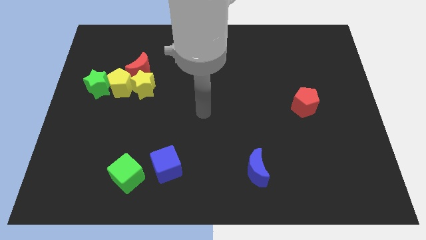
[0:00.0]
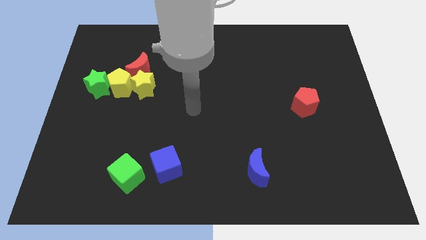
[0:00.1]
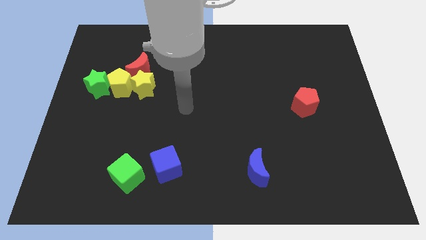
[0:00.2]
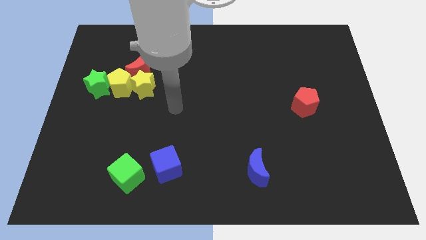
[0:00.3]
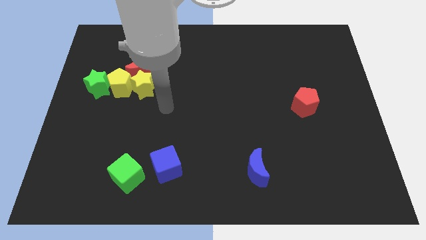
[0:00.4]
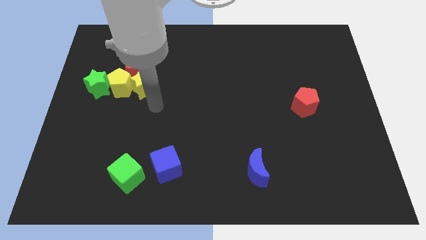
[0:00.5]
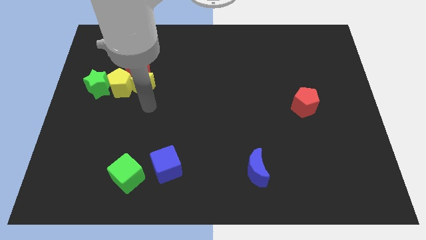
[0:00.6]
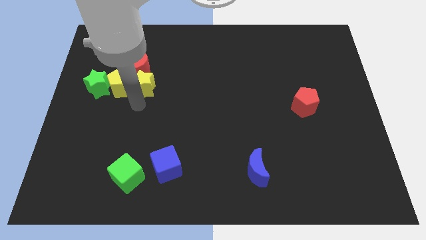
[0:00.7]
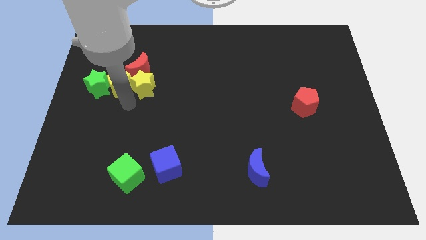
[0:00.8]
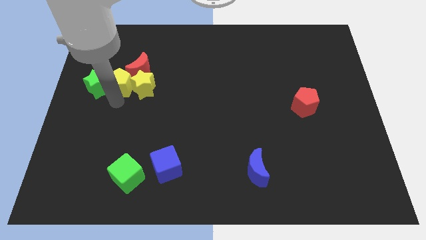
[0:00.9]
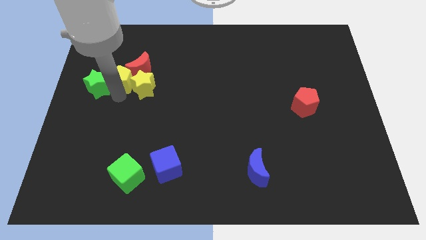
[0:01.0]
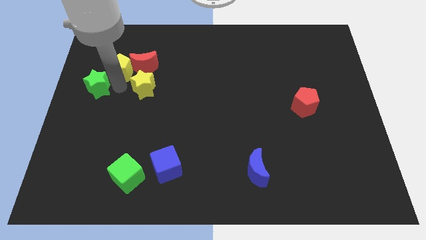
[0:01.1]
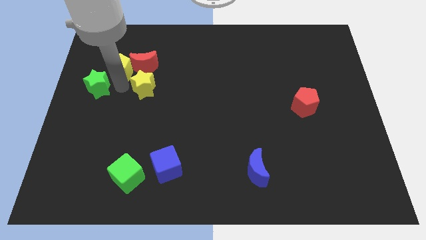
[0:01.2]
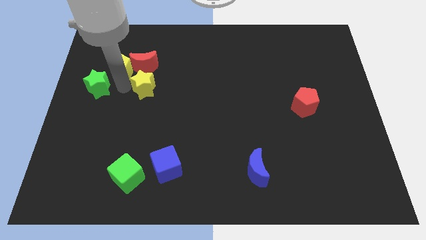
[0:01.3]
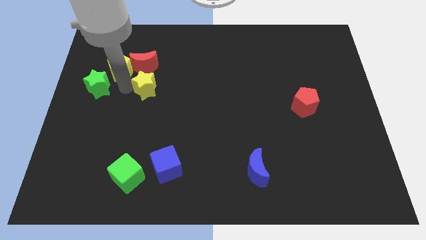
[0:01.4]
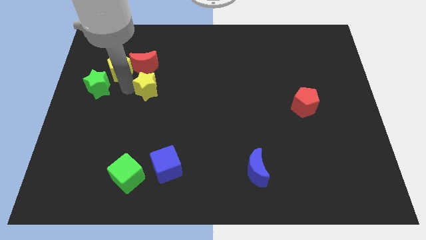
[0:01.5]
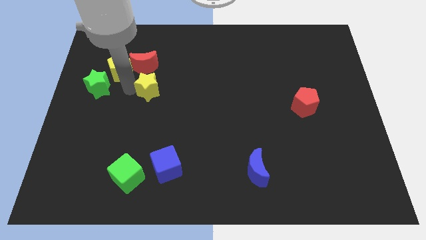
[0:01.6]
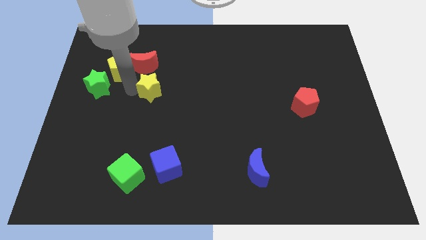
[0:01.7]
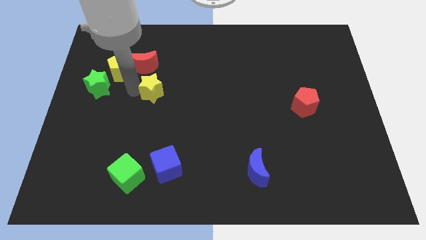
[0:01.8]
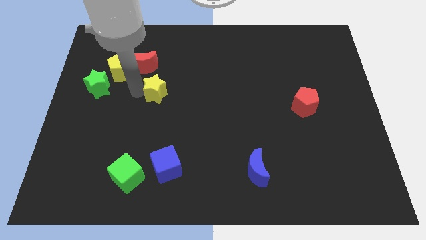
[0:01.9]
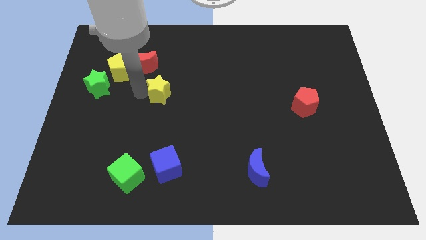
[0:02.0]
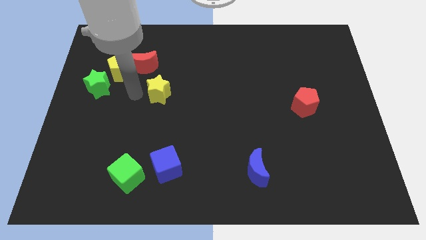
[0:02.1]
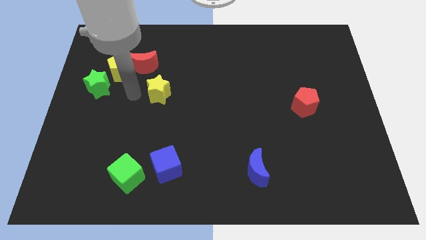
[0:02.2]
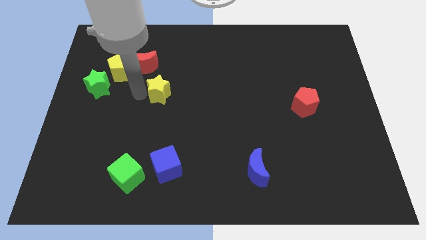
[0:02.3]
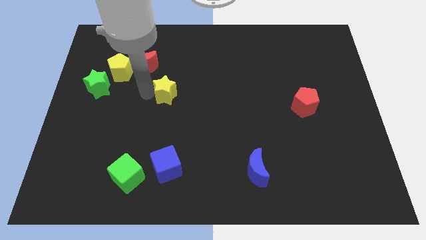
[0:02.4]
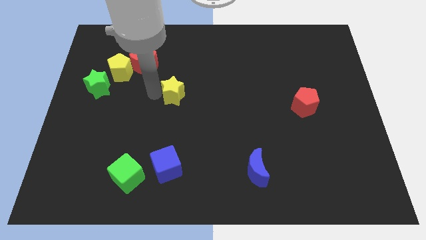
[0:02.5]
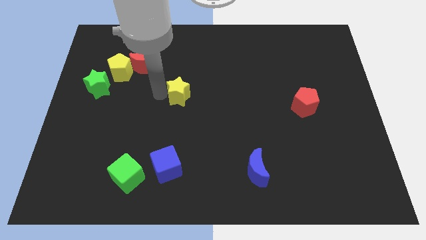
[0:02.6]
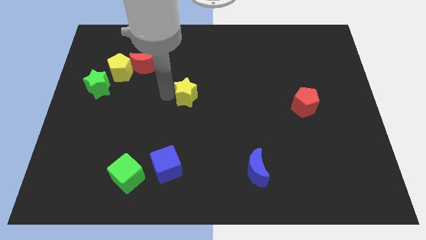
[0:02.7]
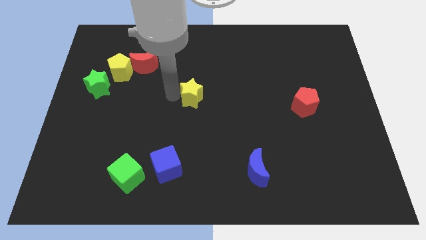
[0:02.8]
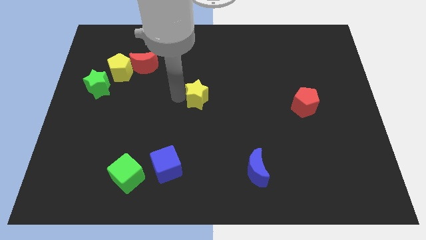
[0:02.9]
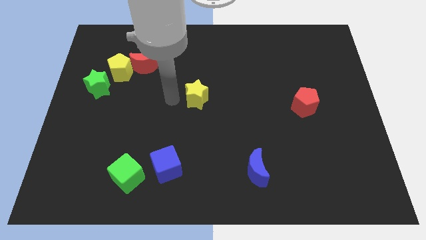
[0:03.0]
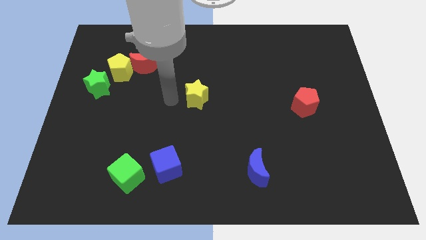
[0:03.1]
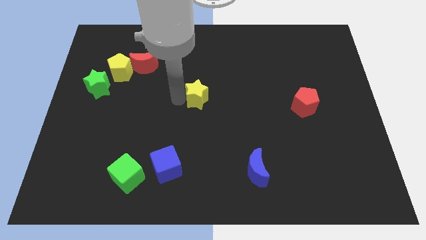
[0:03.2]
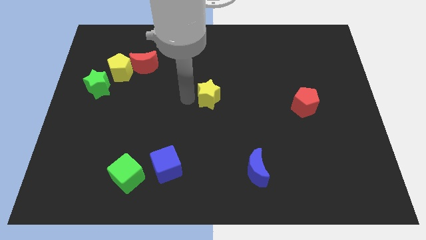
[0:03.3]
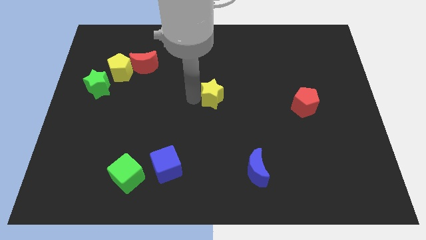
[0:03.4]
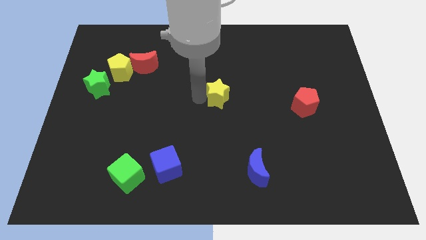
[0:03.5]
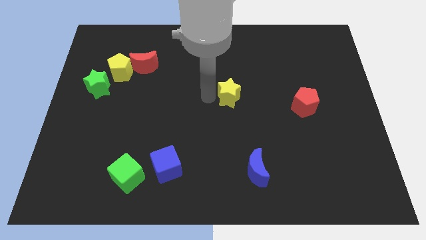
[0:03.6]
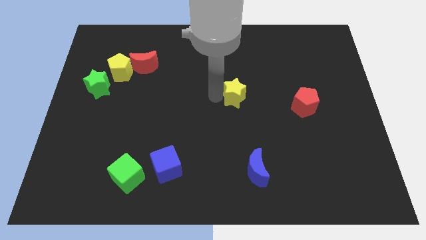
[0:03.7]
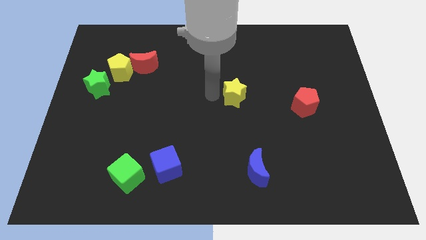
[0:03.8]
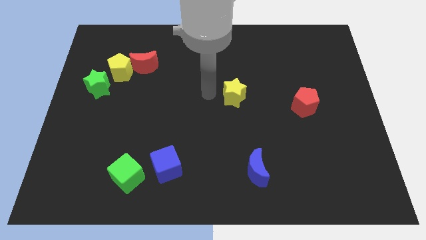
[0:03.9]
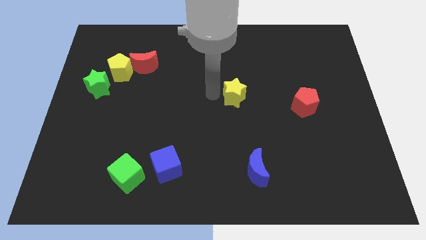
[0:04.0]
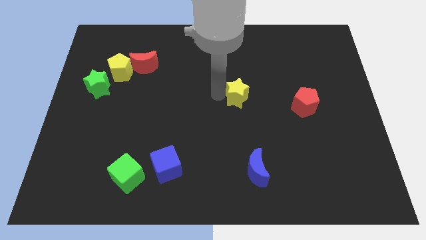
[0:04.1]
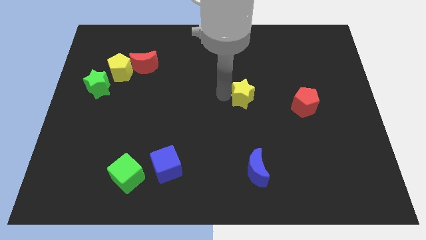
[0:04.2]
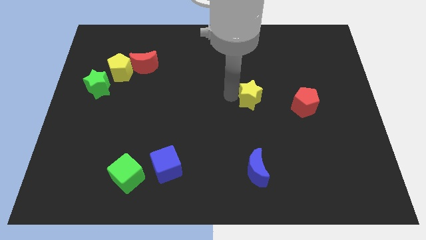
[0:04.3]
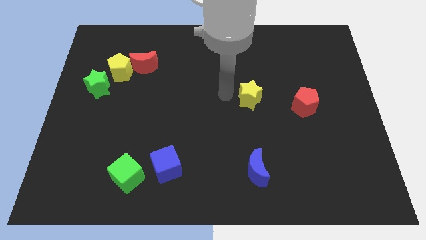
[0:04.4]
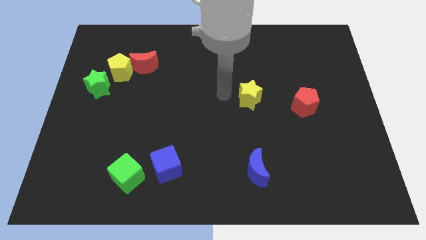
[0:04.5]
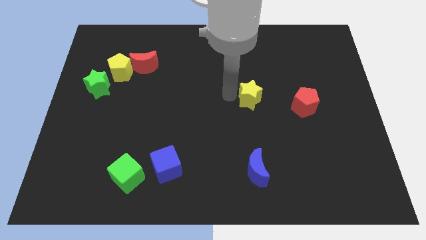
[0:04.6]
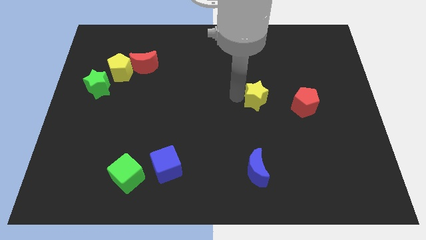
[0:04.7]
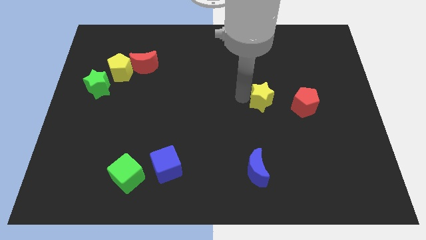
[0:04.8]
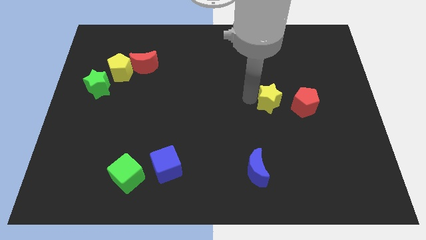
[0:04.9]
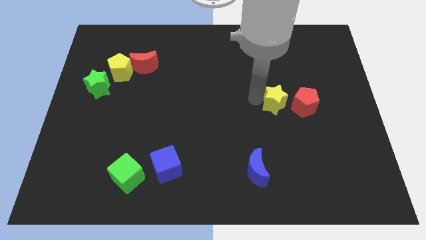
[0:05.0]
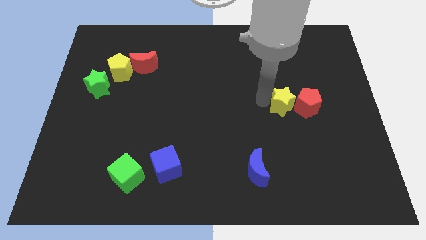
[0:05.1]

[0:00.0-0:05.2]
push the yellow star next to the red pentagon

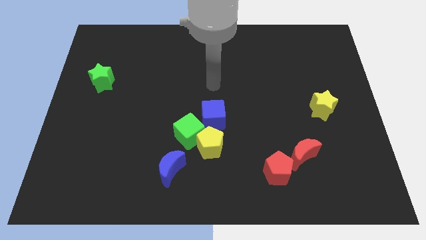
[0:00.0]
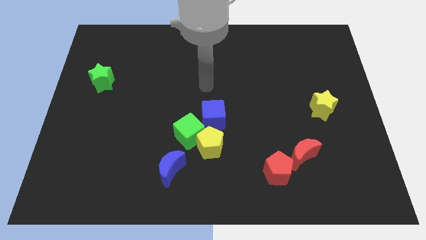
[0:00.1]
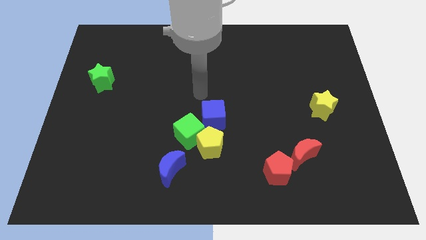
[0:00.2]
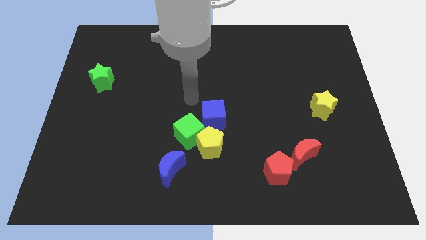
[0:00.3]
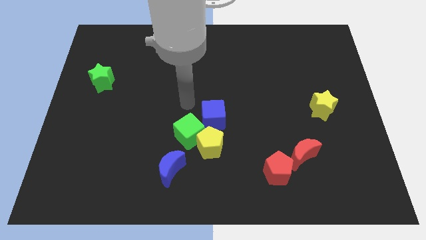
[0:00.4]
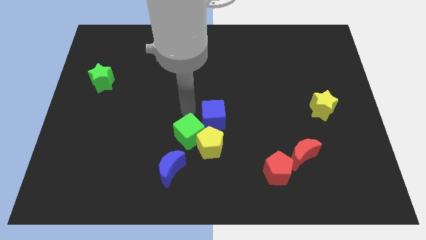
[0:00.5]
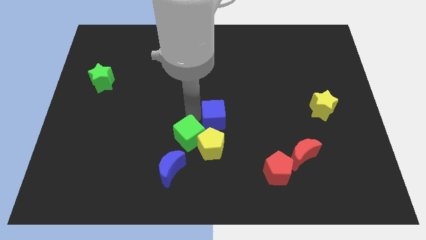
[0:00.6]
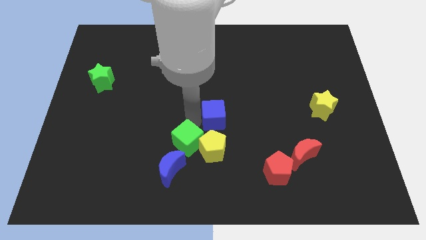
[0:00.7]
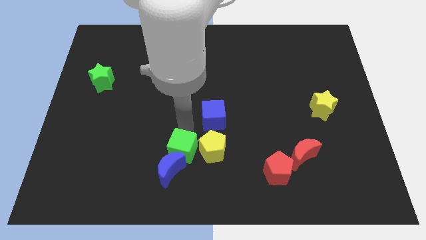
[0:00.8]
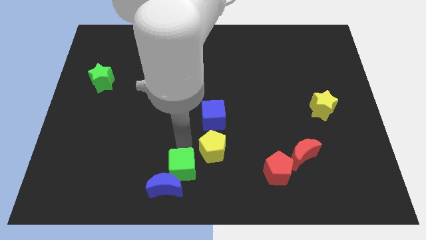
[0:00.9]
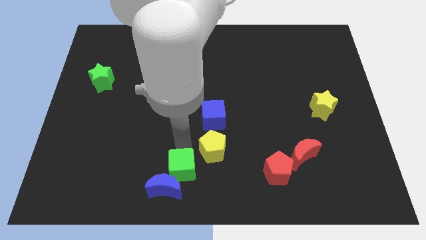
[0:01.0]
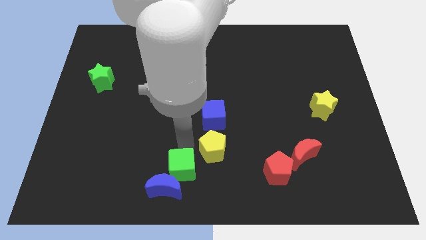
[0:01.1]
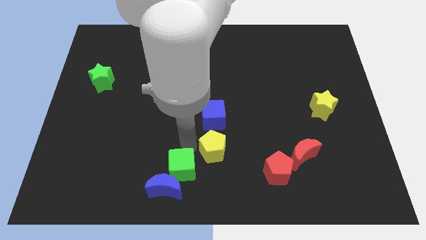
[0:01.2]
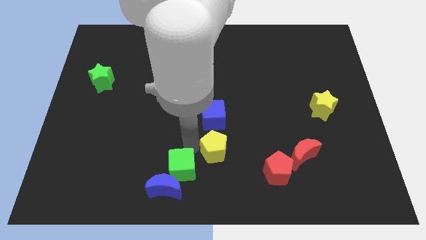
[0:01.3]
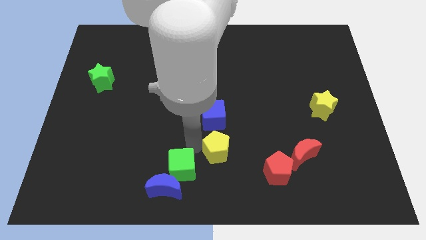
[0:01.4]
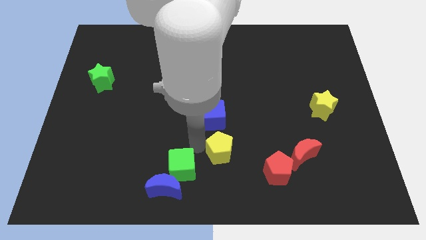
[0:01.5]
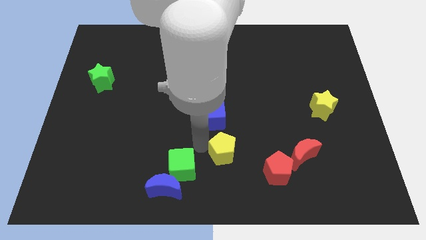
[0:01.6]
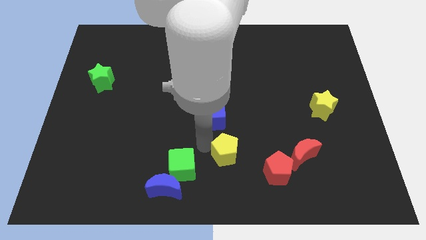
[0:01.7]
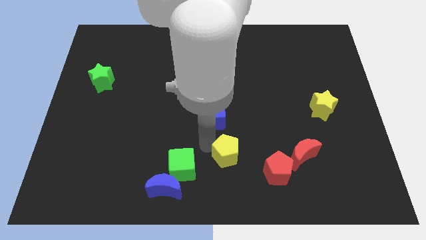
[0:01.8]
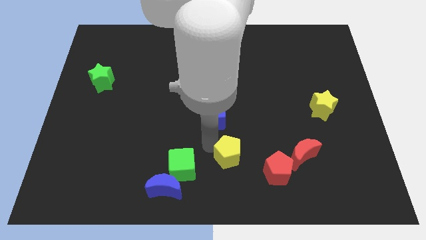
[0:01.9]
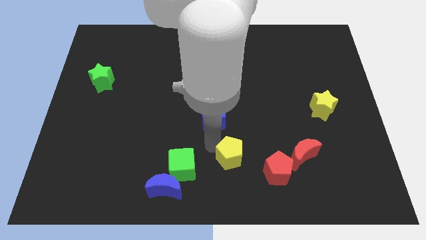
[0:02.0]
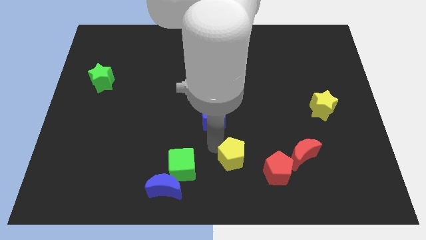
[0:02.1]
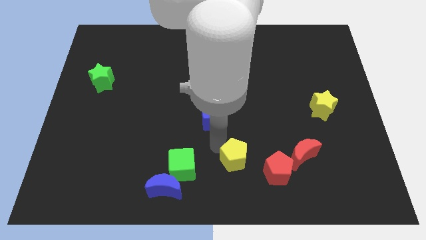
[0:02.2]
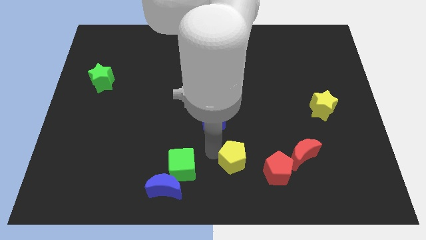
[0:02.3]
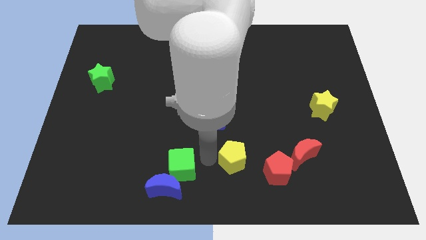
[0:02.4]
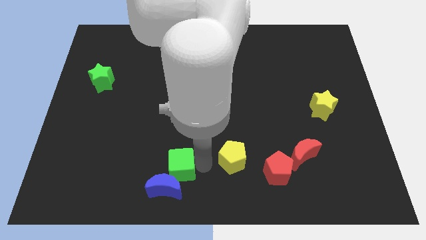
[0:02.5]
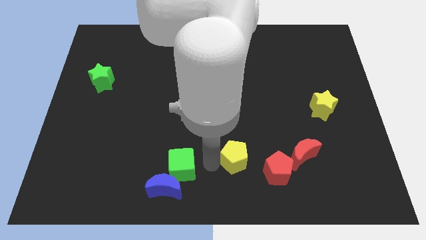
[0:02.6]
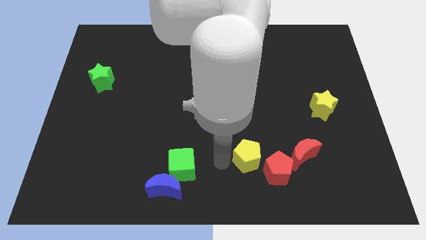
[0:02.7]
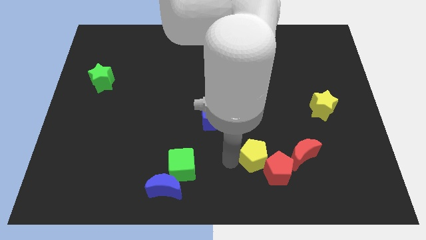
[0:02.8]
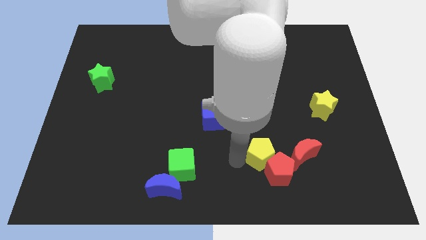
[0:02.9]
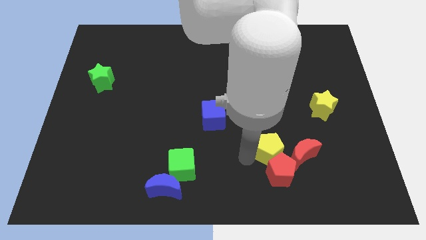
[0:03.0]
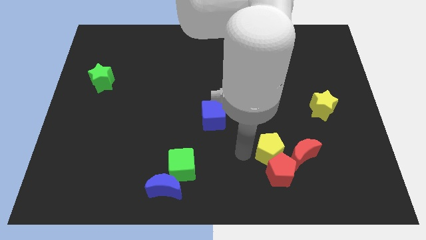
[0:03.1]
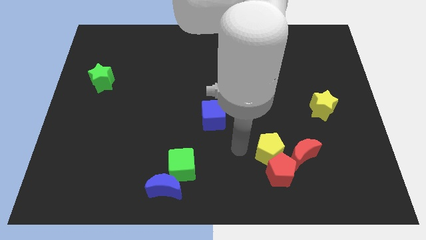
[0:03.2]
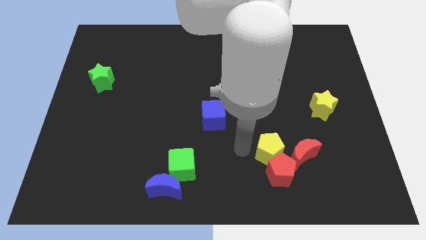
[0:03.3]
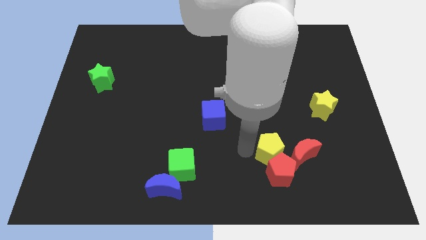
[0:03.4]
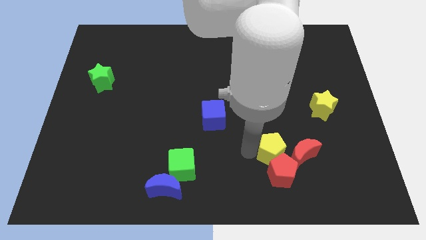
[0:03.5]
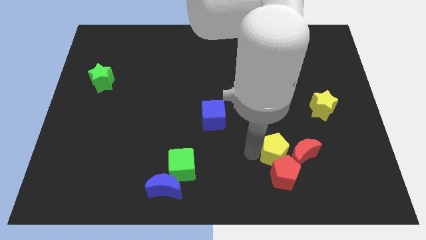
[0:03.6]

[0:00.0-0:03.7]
push the yellow pentagon close to the red moon
